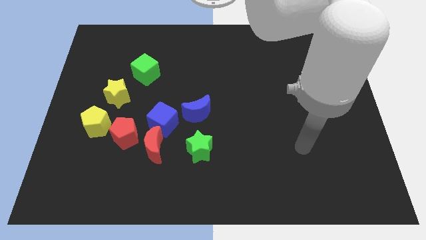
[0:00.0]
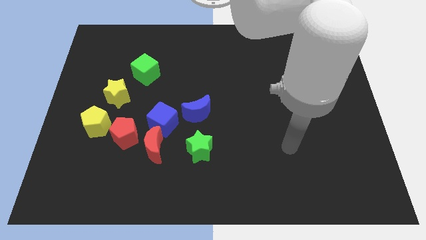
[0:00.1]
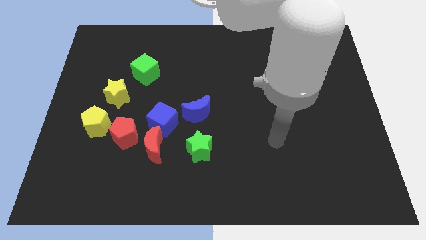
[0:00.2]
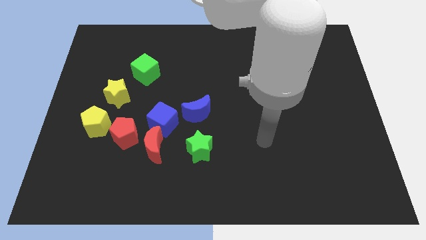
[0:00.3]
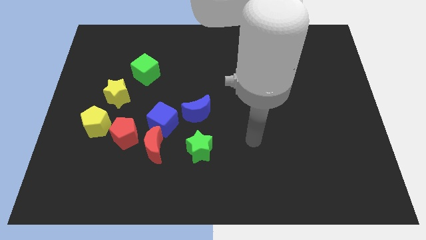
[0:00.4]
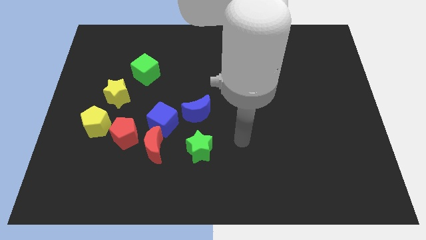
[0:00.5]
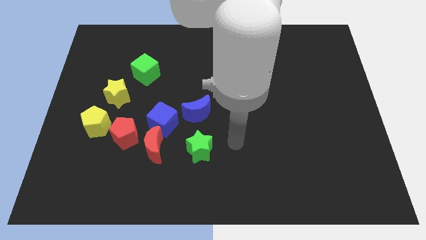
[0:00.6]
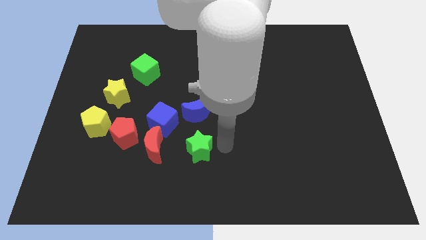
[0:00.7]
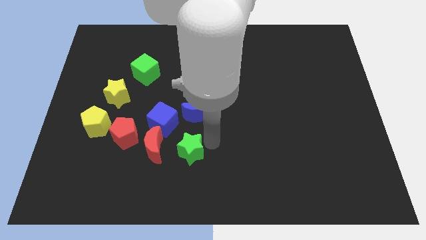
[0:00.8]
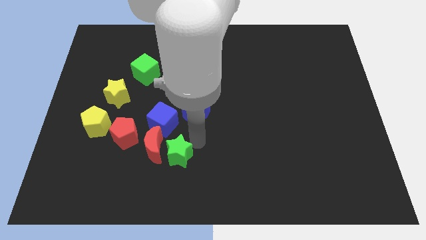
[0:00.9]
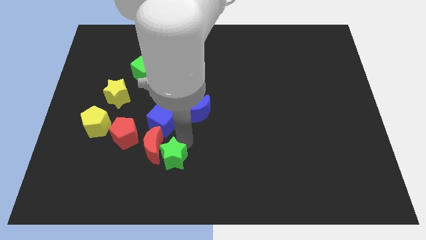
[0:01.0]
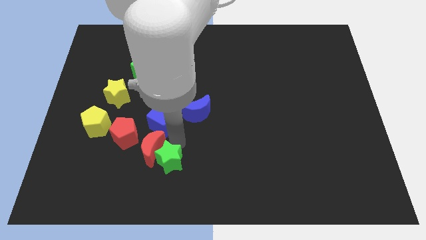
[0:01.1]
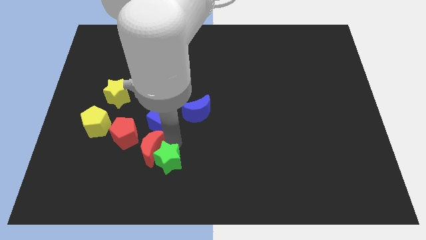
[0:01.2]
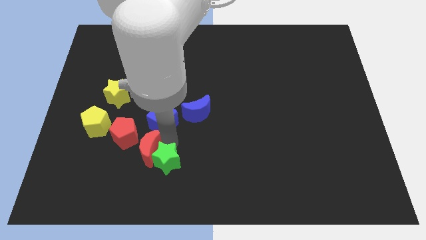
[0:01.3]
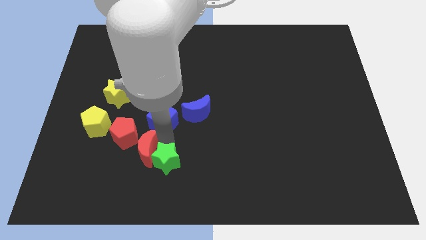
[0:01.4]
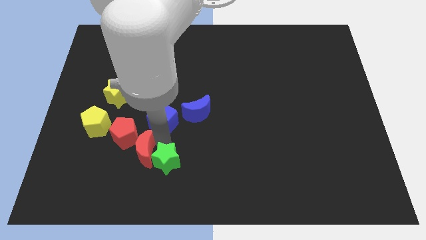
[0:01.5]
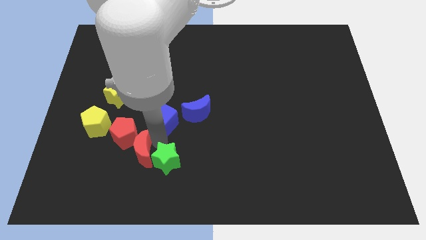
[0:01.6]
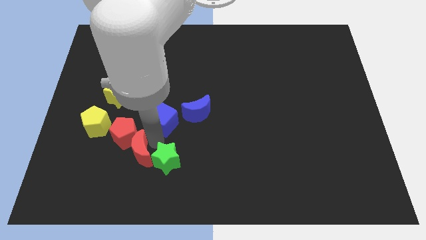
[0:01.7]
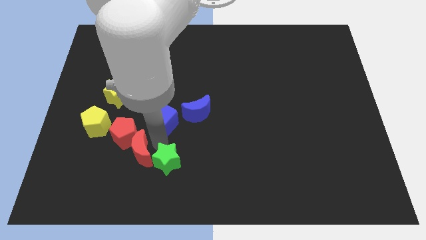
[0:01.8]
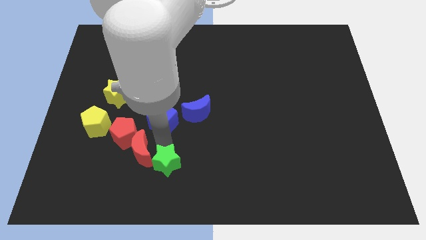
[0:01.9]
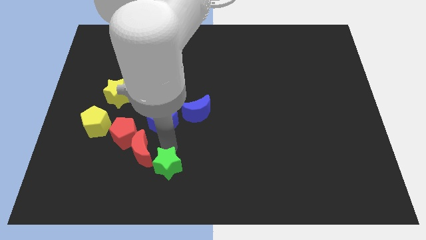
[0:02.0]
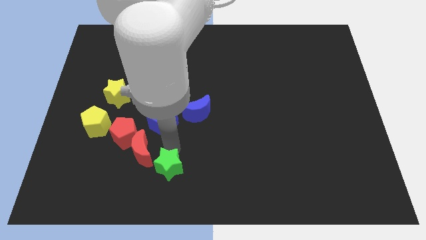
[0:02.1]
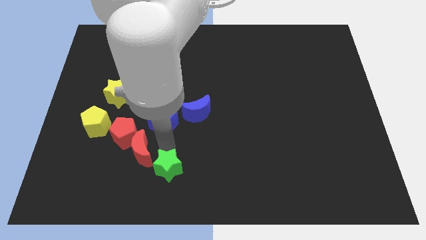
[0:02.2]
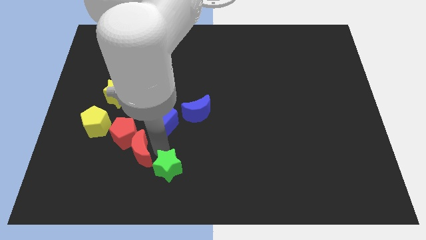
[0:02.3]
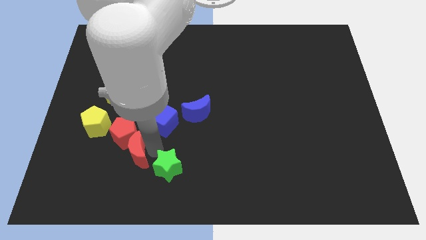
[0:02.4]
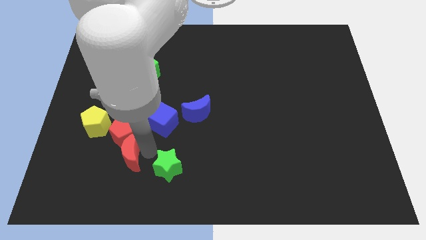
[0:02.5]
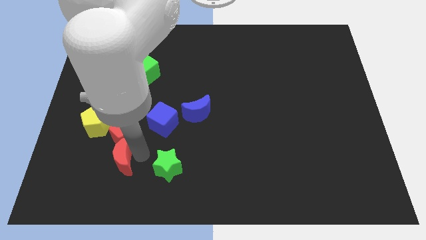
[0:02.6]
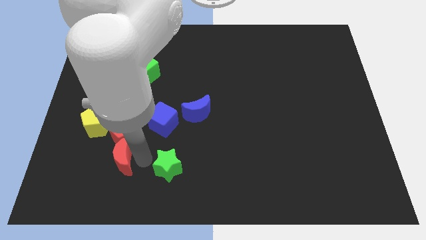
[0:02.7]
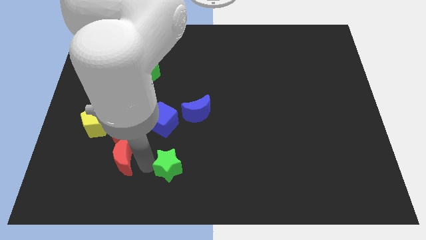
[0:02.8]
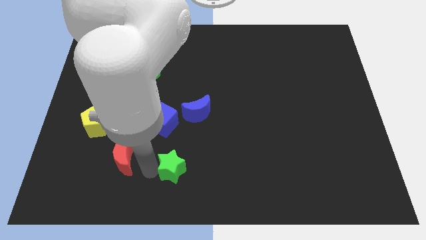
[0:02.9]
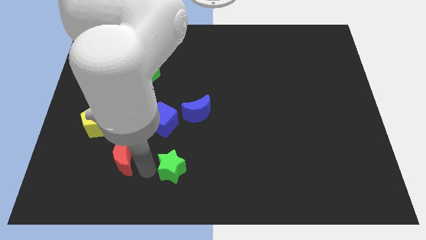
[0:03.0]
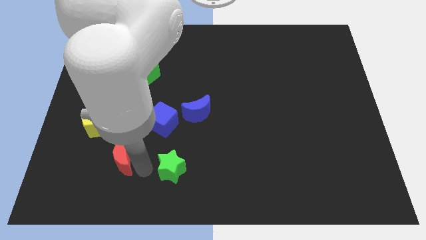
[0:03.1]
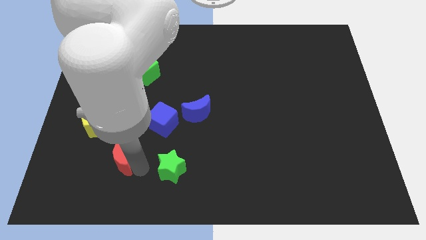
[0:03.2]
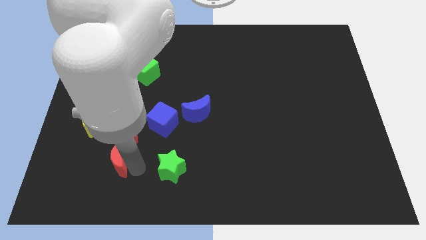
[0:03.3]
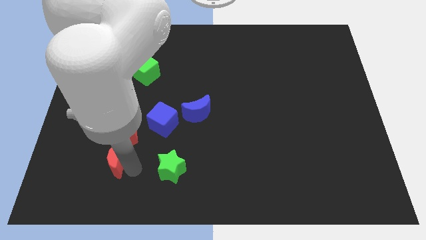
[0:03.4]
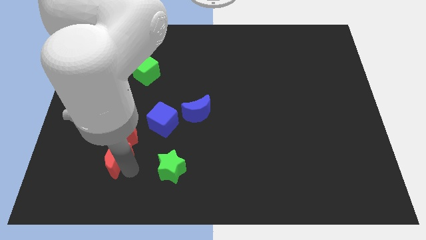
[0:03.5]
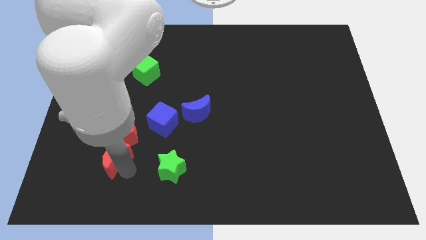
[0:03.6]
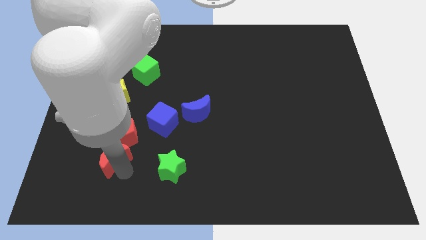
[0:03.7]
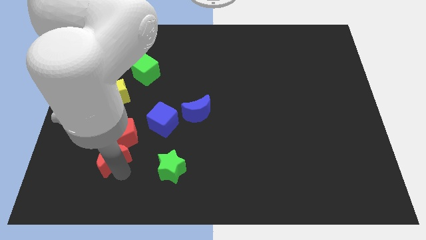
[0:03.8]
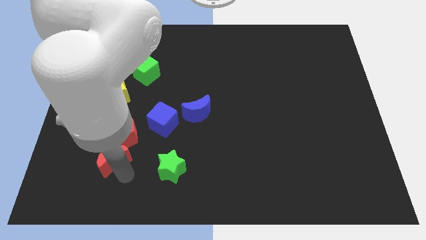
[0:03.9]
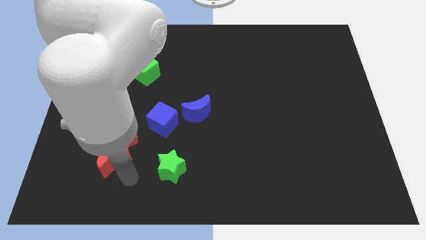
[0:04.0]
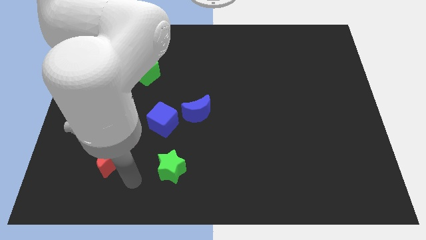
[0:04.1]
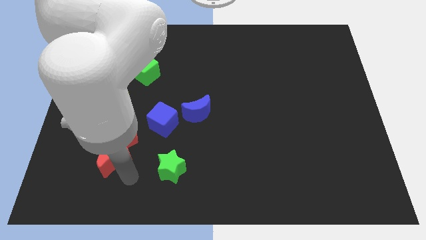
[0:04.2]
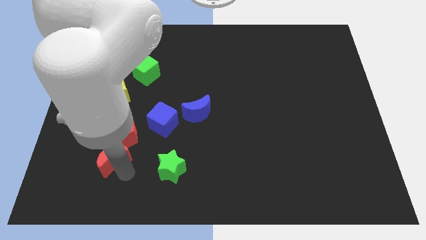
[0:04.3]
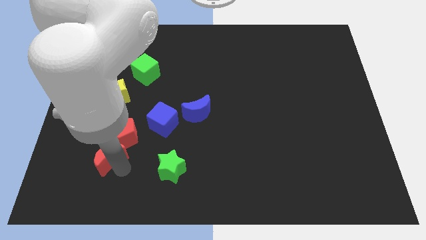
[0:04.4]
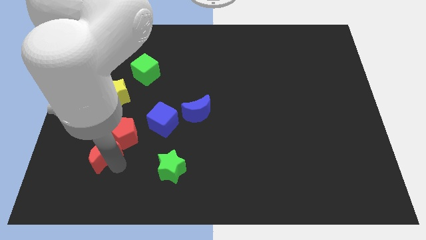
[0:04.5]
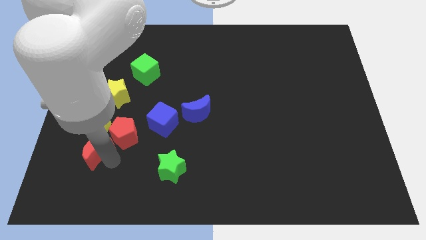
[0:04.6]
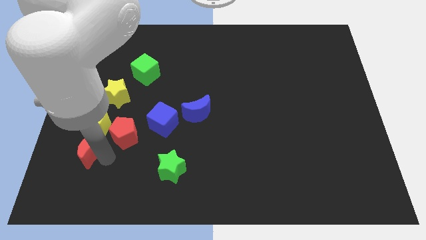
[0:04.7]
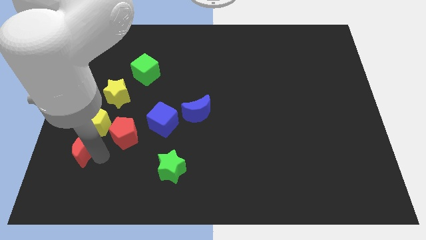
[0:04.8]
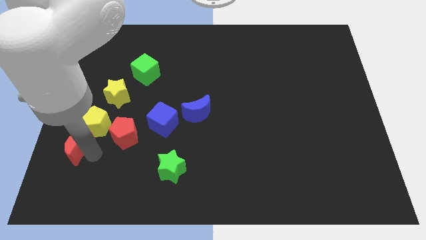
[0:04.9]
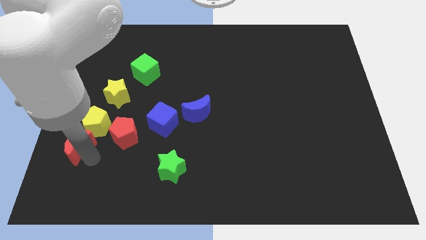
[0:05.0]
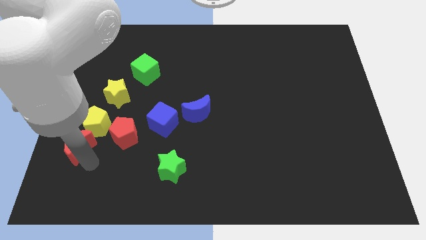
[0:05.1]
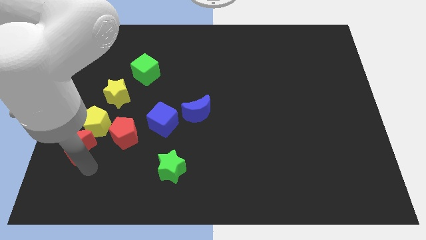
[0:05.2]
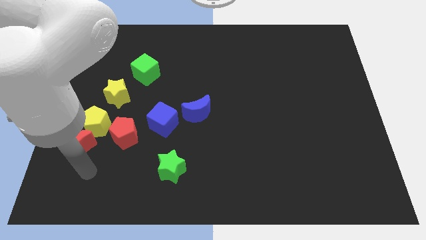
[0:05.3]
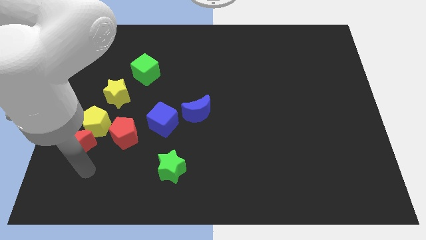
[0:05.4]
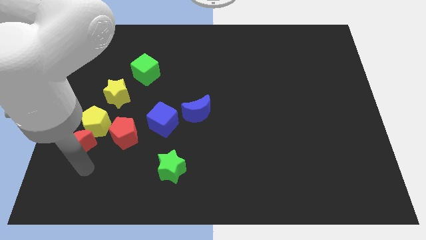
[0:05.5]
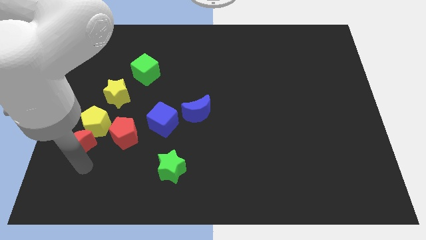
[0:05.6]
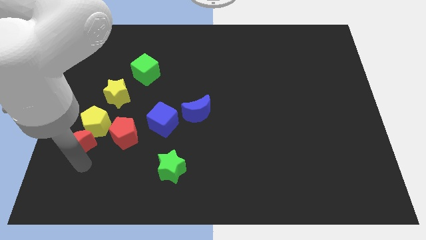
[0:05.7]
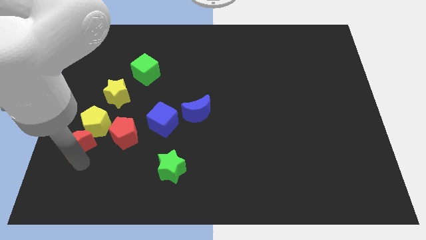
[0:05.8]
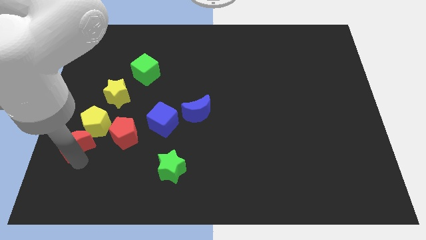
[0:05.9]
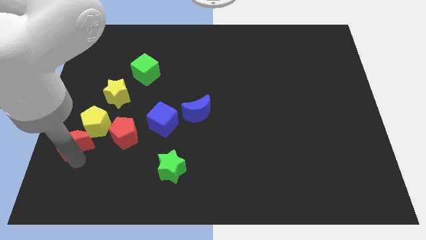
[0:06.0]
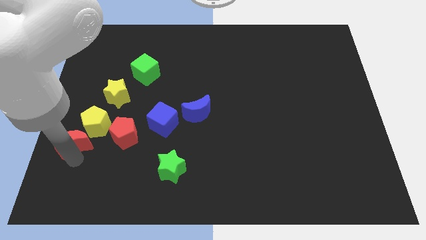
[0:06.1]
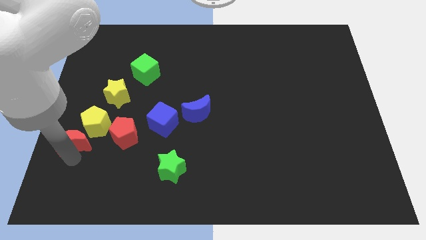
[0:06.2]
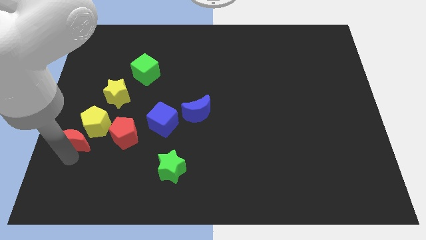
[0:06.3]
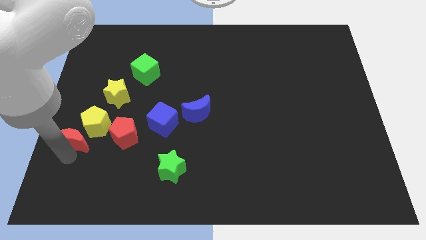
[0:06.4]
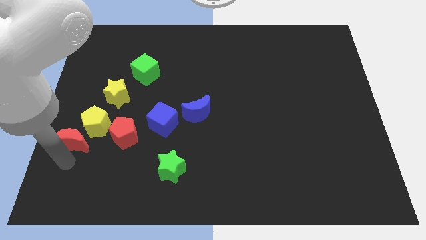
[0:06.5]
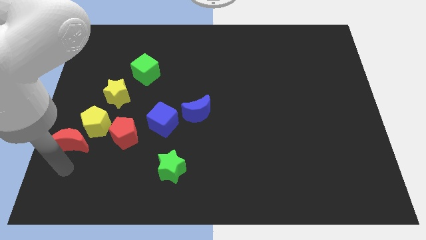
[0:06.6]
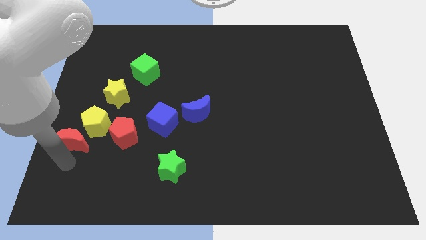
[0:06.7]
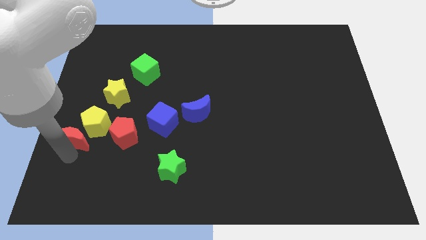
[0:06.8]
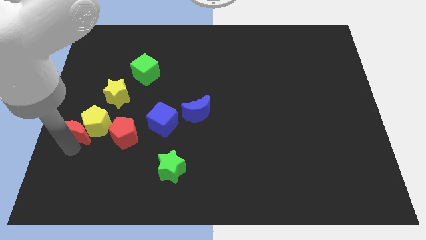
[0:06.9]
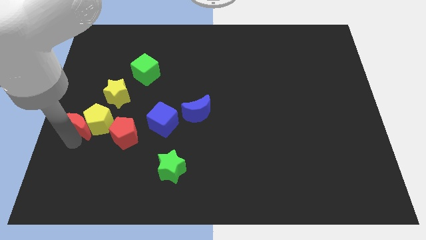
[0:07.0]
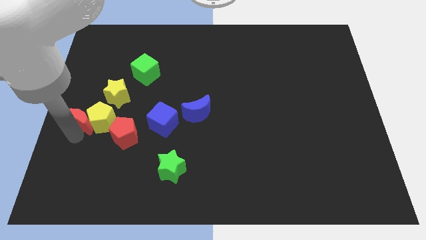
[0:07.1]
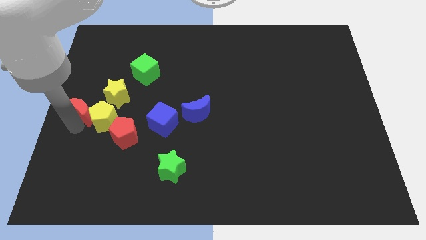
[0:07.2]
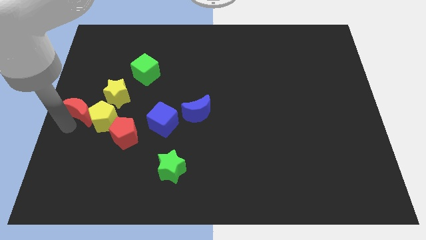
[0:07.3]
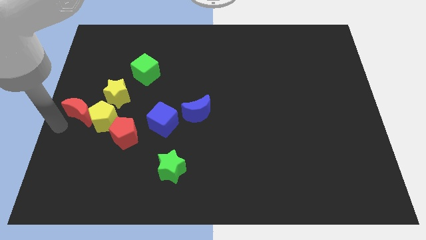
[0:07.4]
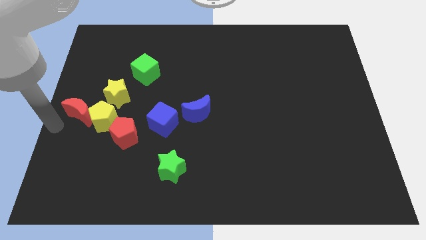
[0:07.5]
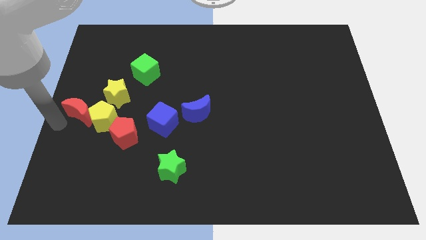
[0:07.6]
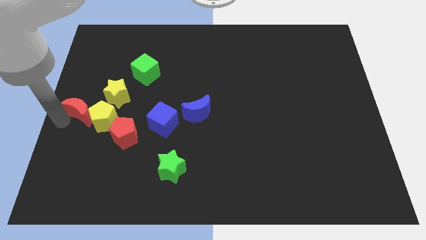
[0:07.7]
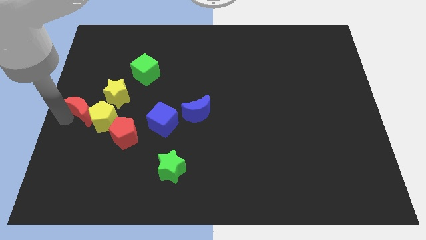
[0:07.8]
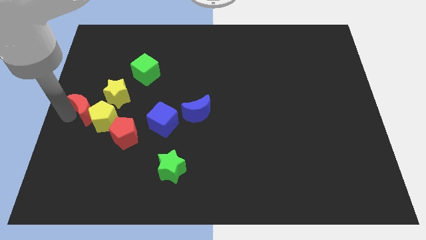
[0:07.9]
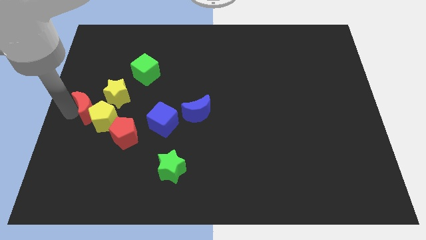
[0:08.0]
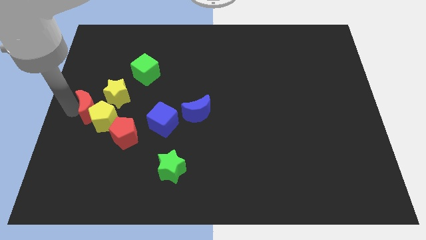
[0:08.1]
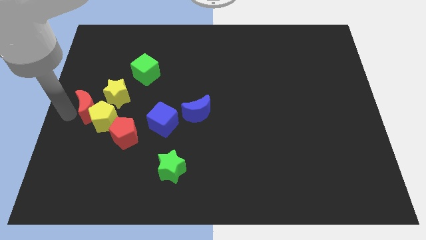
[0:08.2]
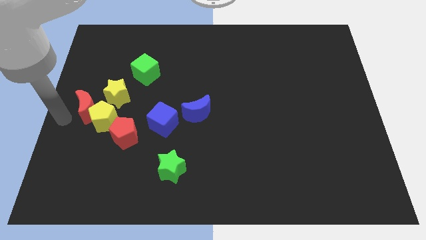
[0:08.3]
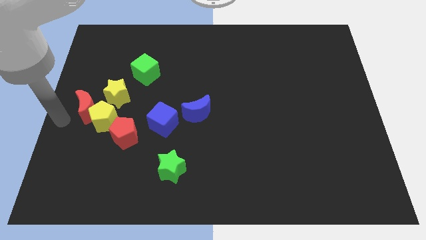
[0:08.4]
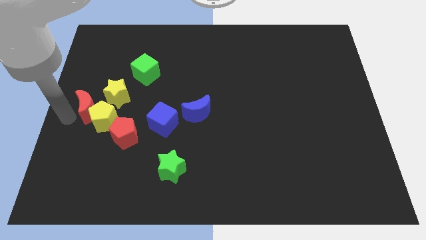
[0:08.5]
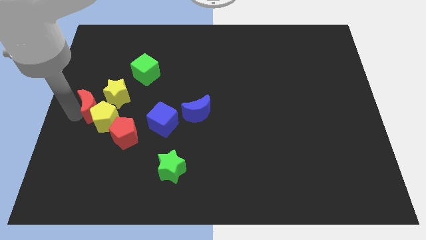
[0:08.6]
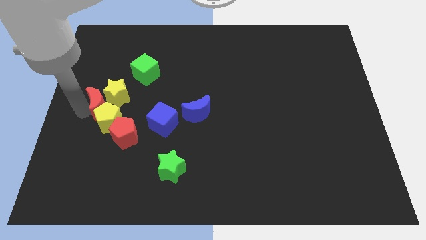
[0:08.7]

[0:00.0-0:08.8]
put the red moon next to the yellow star
